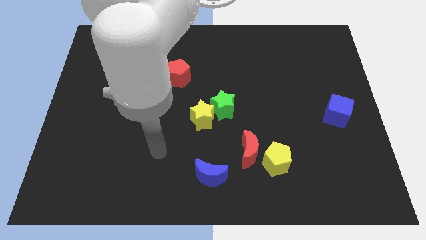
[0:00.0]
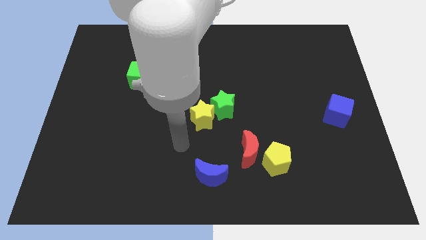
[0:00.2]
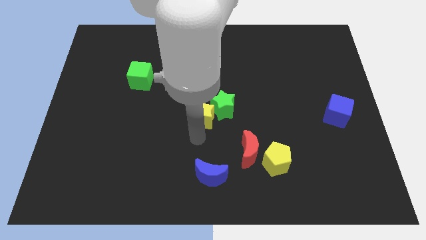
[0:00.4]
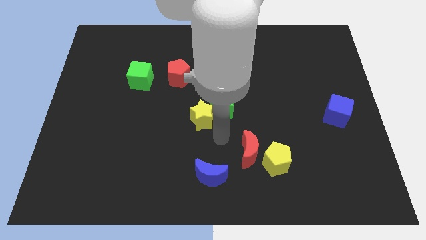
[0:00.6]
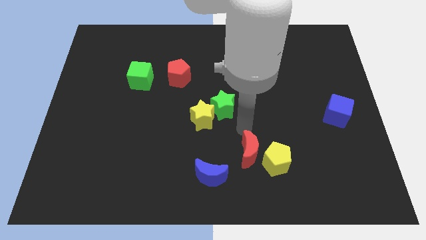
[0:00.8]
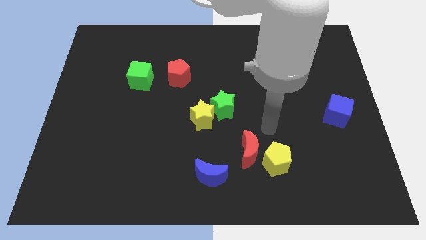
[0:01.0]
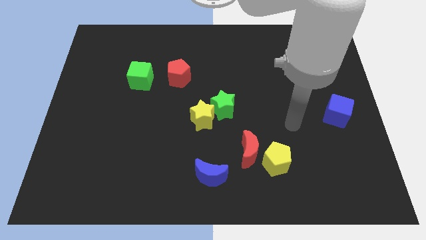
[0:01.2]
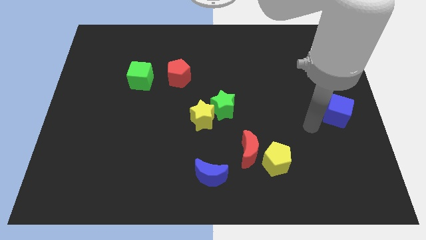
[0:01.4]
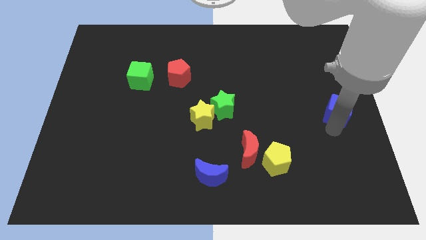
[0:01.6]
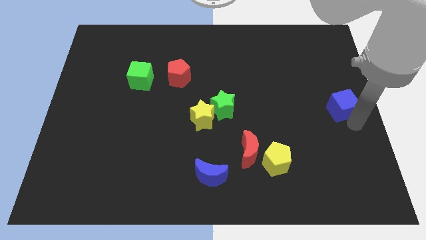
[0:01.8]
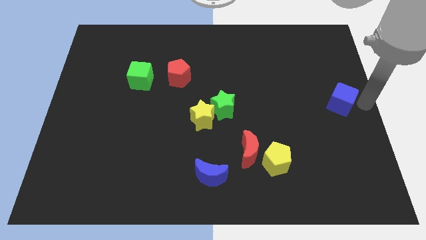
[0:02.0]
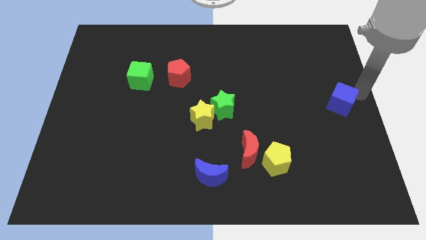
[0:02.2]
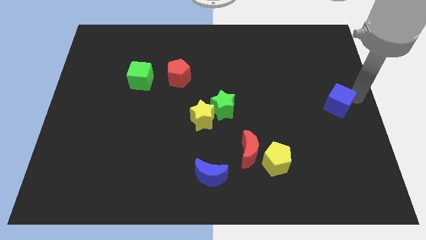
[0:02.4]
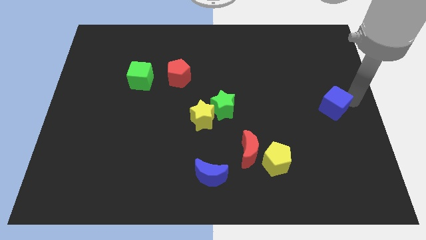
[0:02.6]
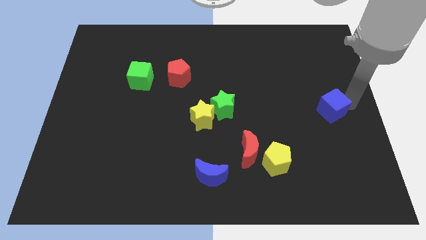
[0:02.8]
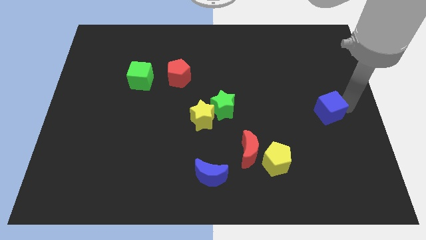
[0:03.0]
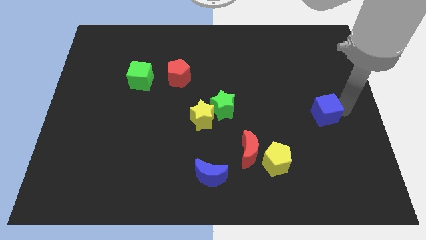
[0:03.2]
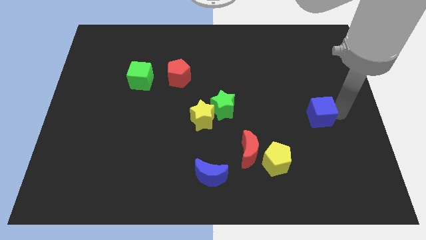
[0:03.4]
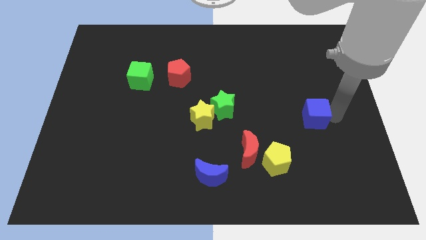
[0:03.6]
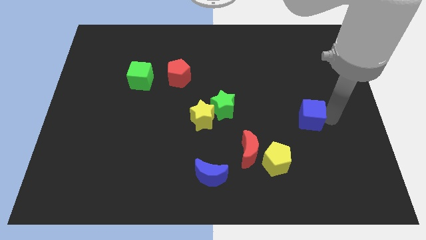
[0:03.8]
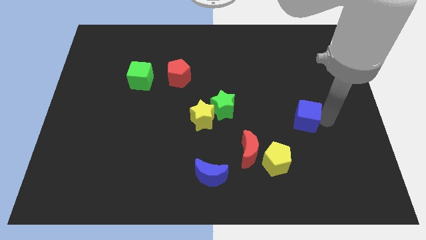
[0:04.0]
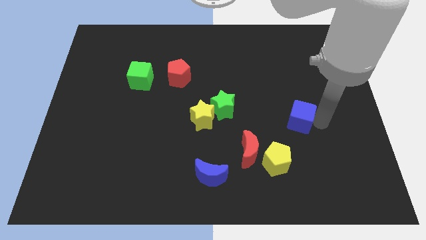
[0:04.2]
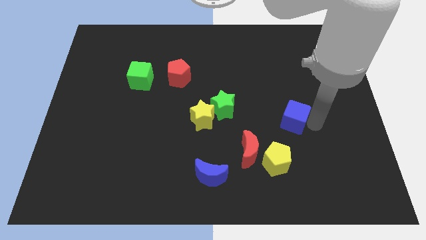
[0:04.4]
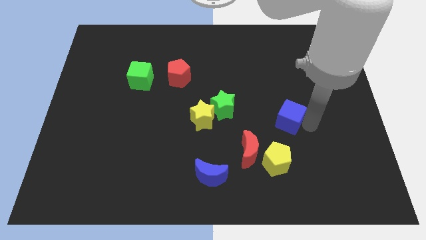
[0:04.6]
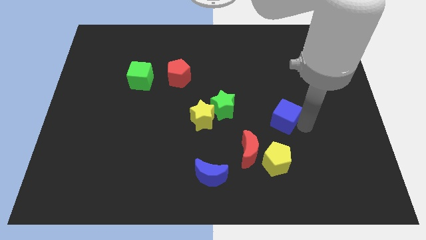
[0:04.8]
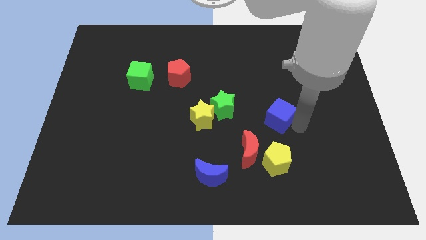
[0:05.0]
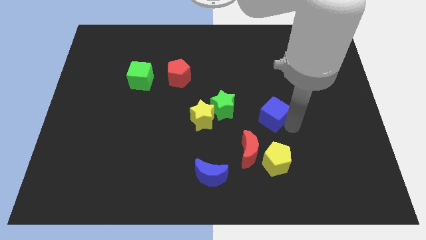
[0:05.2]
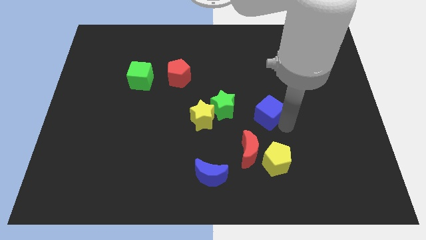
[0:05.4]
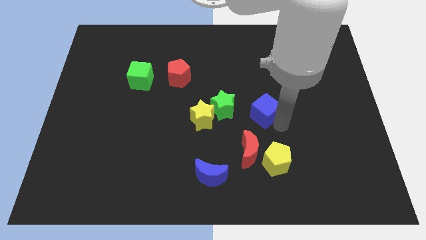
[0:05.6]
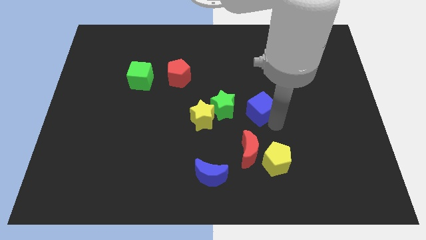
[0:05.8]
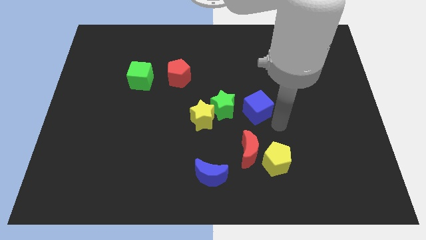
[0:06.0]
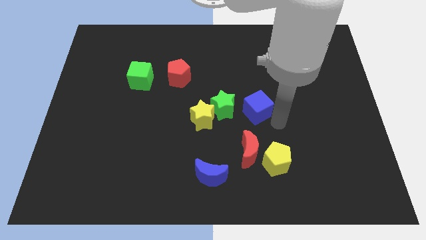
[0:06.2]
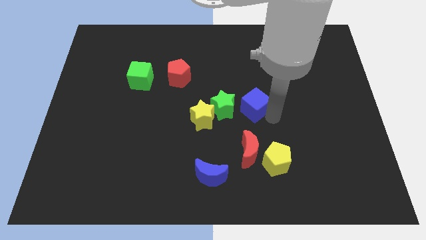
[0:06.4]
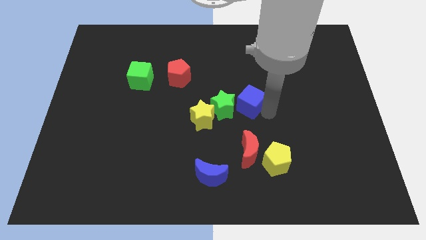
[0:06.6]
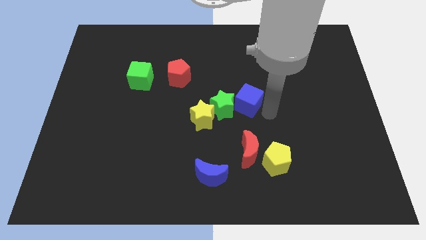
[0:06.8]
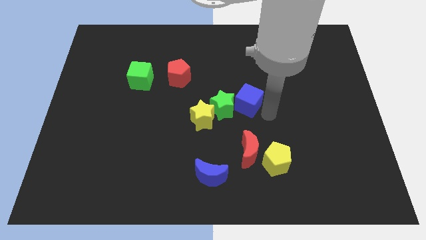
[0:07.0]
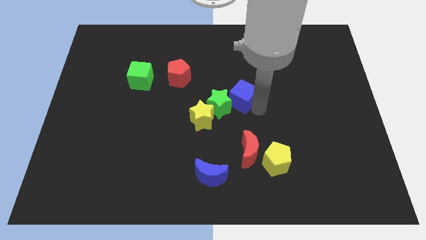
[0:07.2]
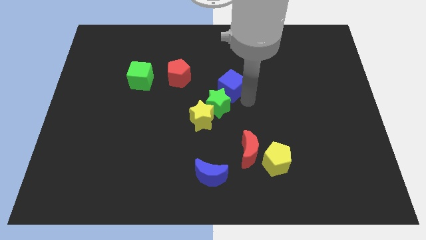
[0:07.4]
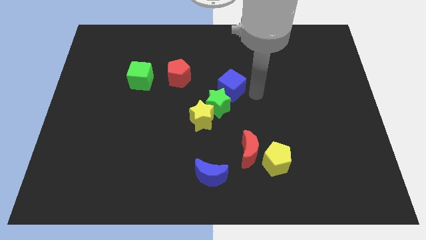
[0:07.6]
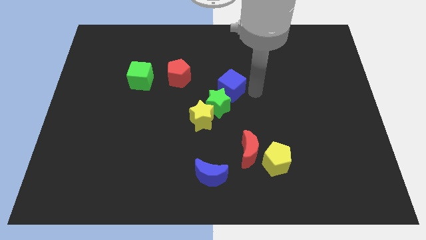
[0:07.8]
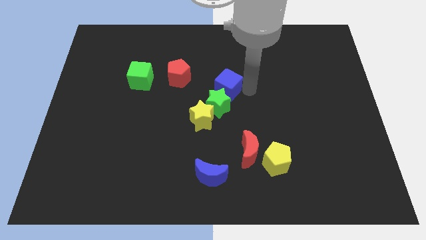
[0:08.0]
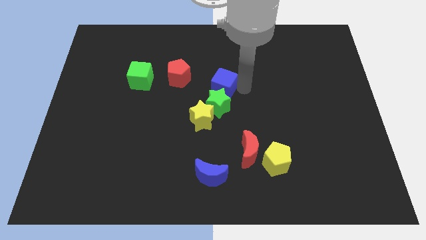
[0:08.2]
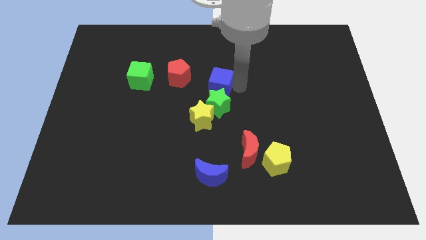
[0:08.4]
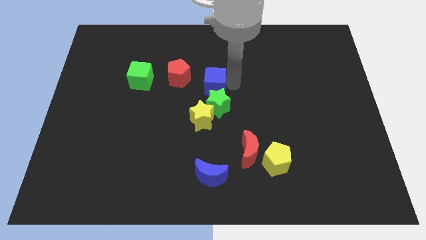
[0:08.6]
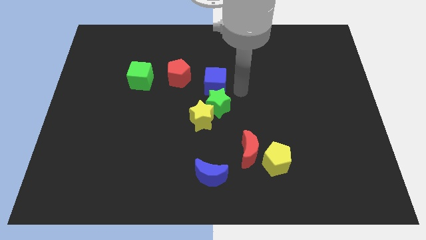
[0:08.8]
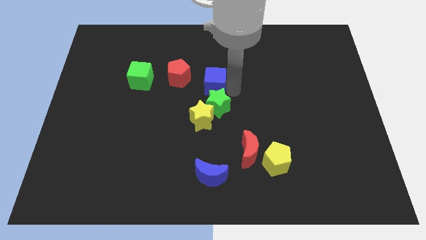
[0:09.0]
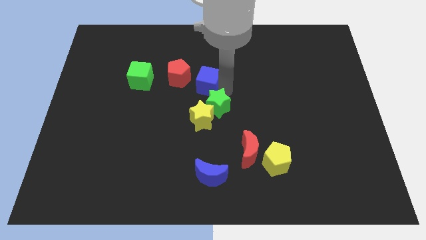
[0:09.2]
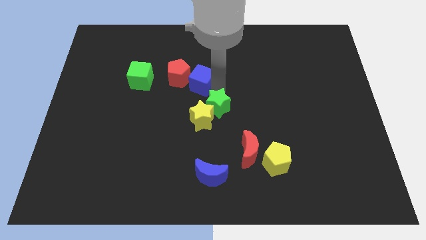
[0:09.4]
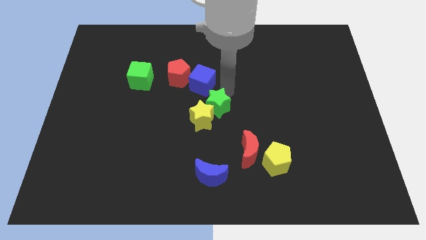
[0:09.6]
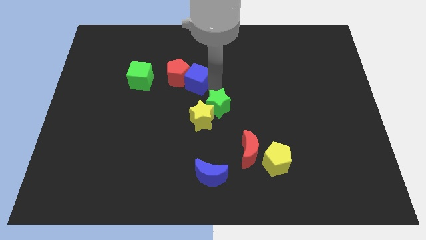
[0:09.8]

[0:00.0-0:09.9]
put the blue cube towards the red pentagon

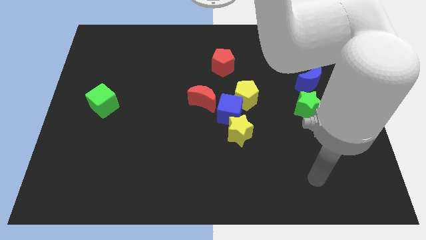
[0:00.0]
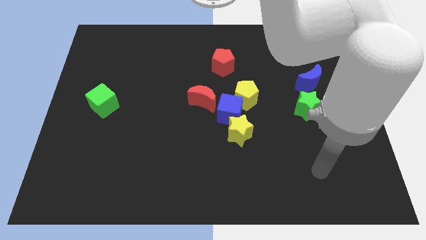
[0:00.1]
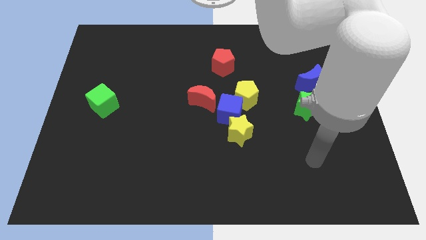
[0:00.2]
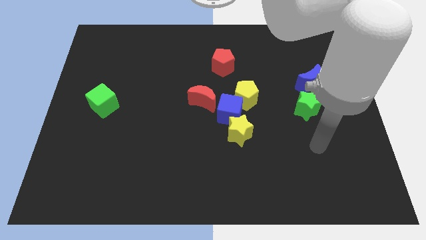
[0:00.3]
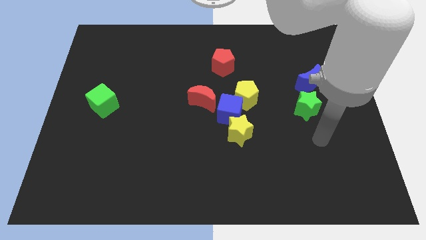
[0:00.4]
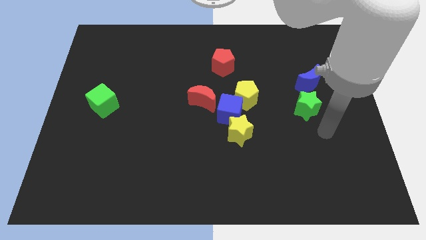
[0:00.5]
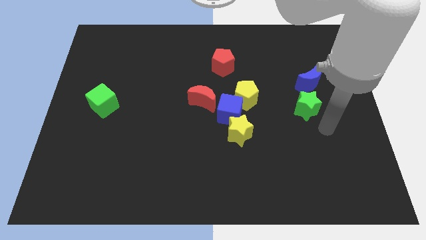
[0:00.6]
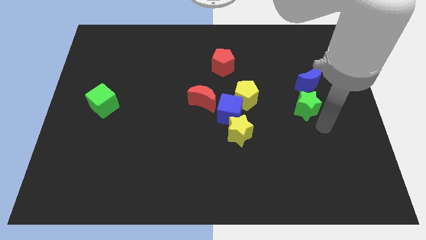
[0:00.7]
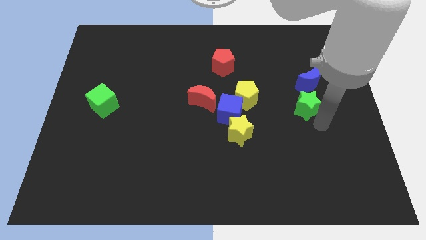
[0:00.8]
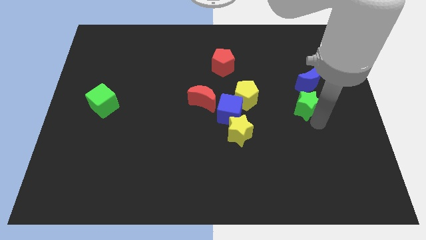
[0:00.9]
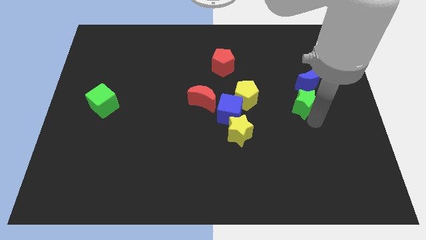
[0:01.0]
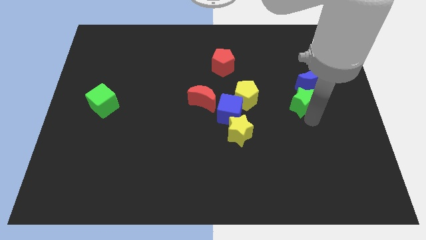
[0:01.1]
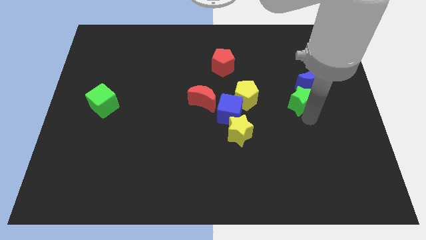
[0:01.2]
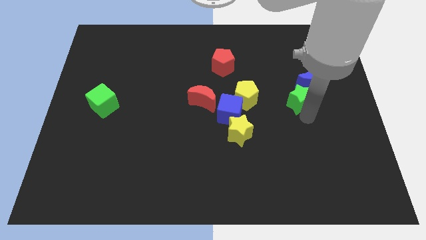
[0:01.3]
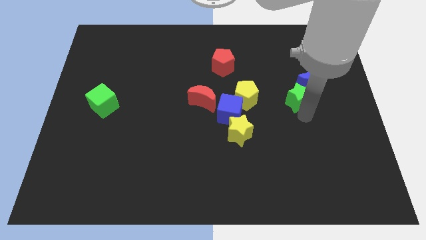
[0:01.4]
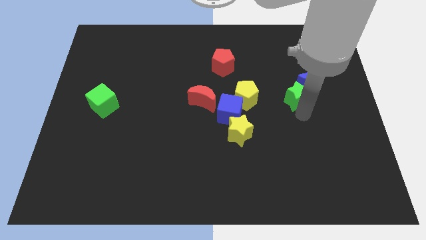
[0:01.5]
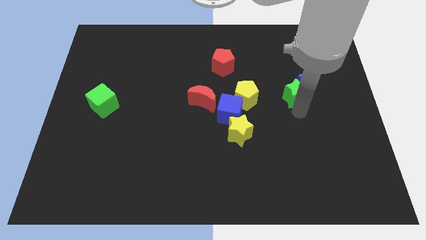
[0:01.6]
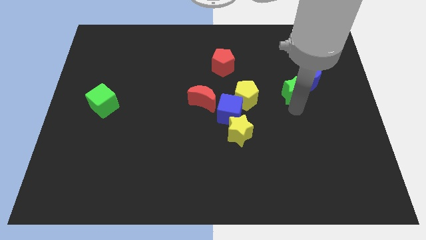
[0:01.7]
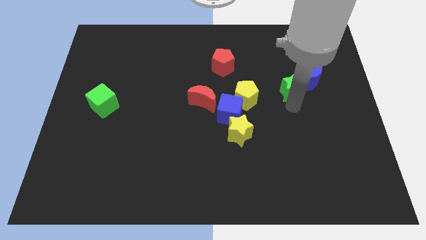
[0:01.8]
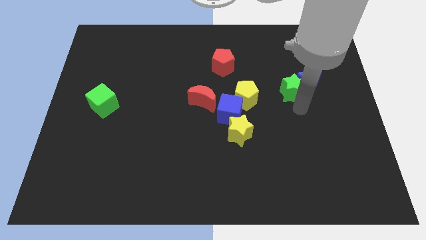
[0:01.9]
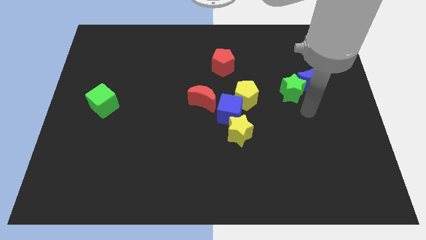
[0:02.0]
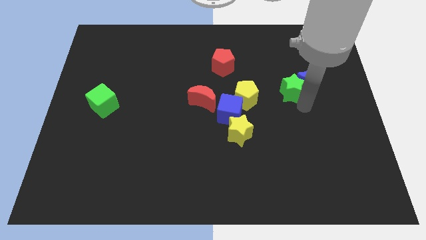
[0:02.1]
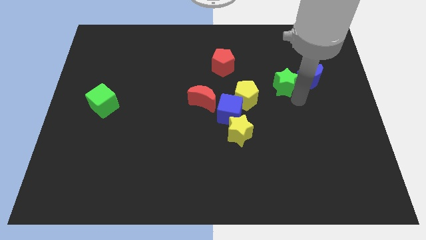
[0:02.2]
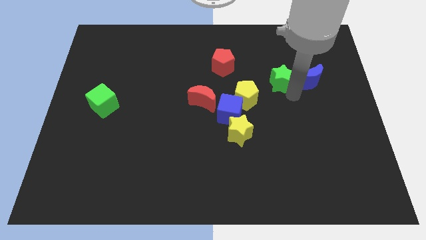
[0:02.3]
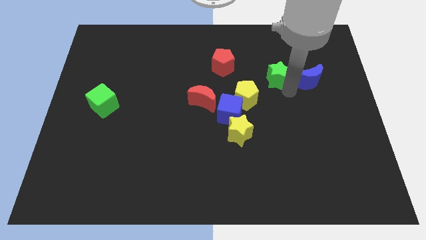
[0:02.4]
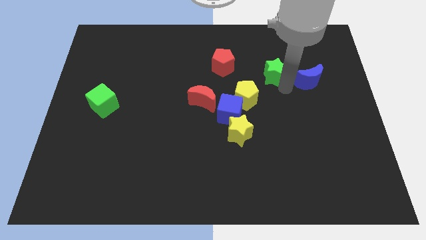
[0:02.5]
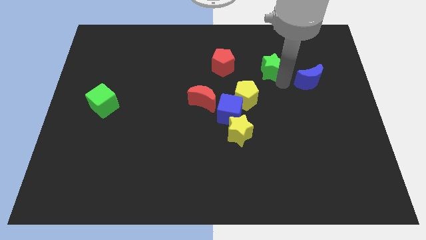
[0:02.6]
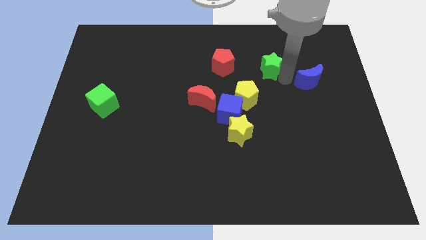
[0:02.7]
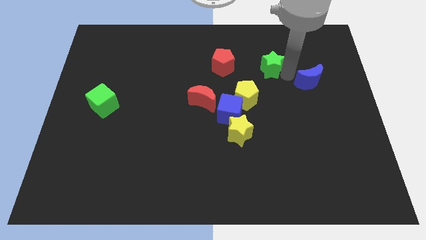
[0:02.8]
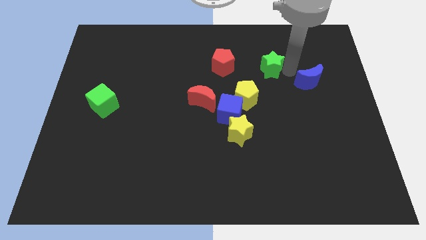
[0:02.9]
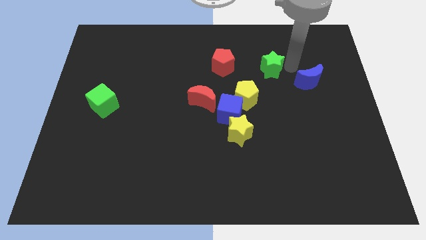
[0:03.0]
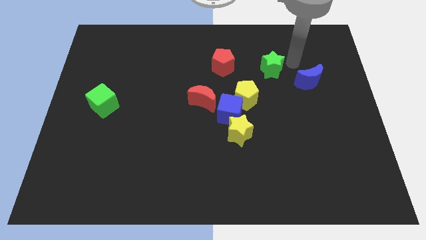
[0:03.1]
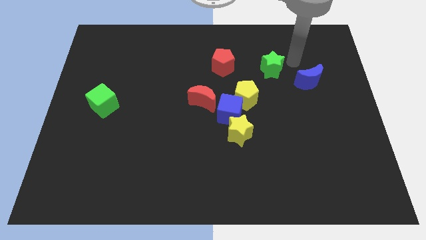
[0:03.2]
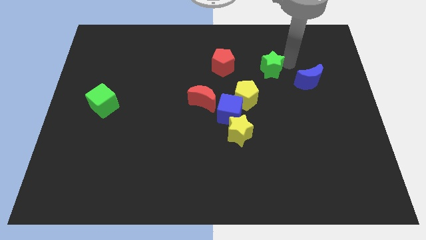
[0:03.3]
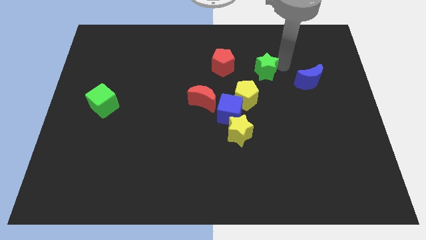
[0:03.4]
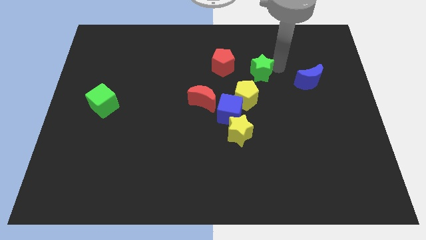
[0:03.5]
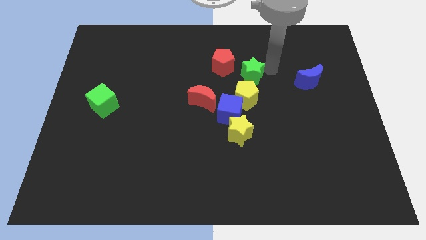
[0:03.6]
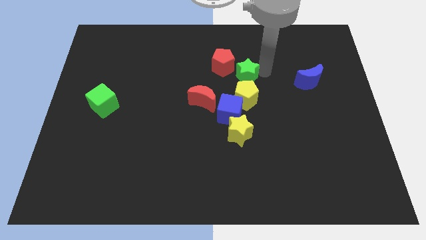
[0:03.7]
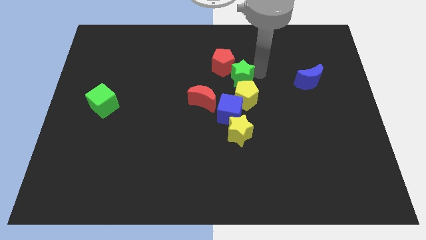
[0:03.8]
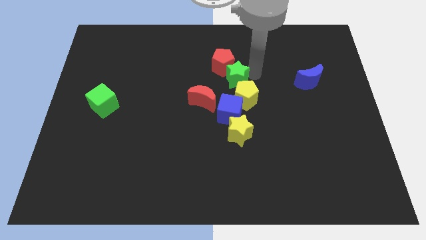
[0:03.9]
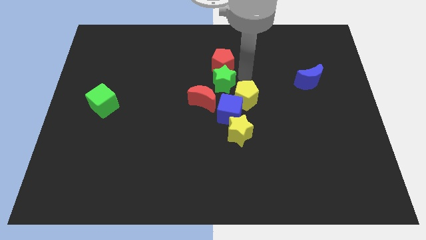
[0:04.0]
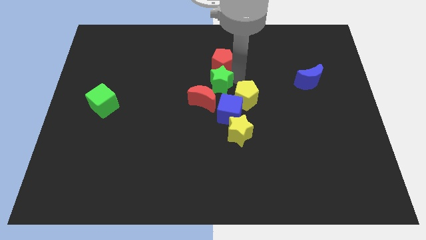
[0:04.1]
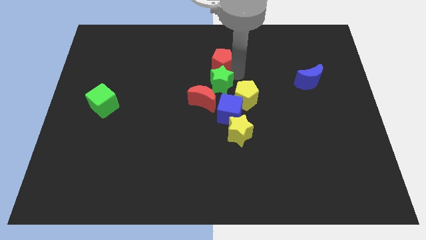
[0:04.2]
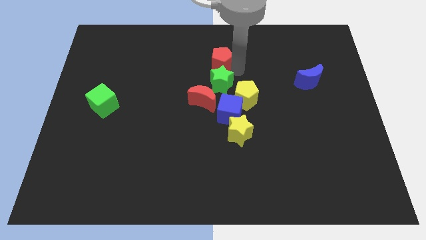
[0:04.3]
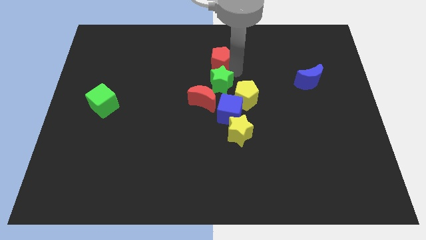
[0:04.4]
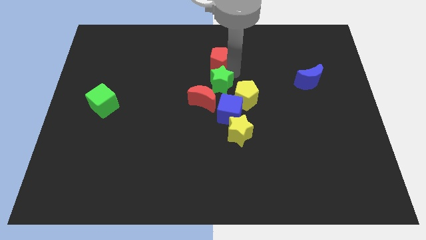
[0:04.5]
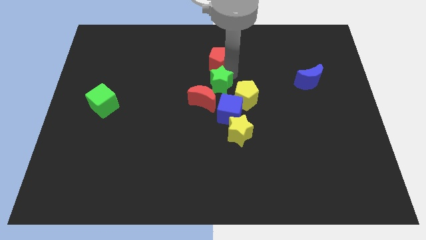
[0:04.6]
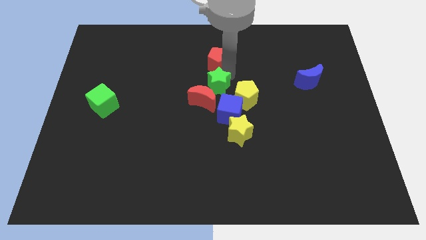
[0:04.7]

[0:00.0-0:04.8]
push the green star close to the red moon
